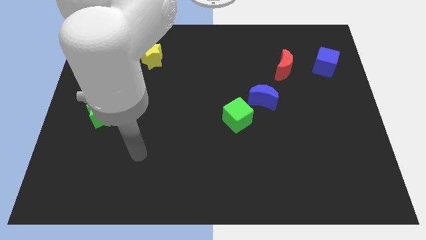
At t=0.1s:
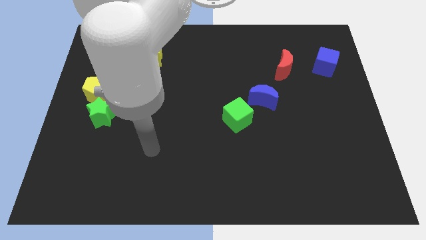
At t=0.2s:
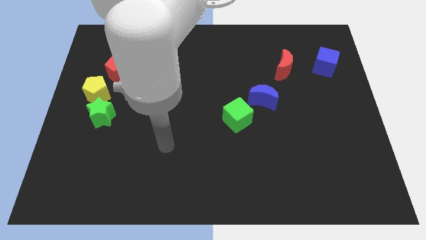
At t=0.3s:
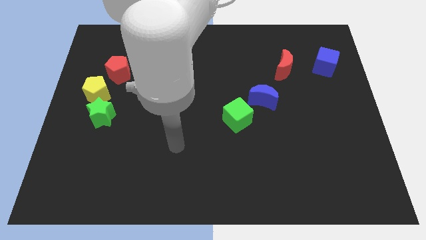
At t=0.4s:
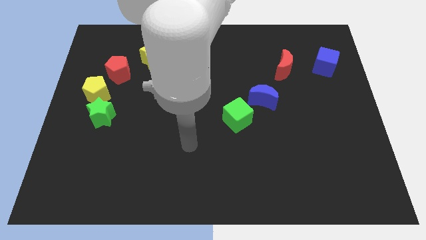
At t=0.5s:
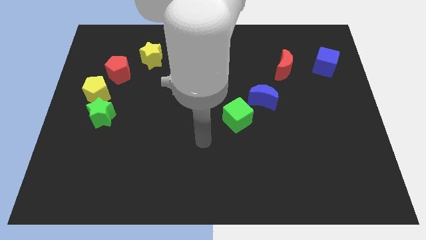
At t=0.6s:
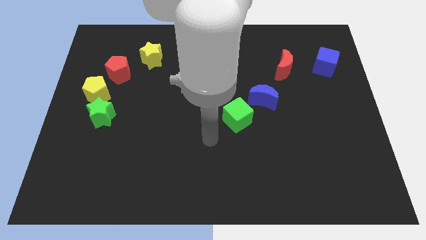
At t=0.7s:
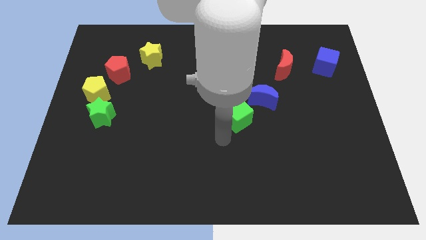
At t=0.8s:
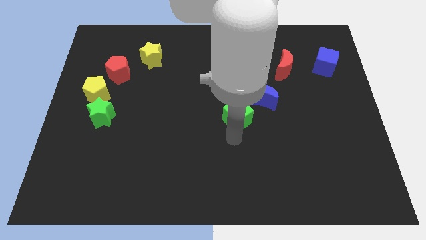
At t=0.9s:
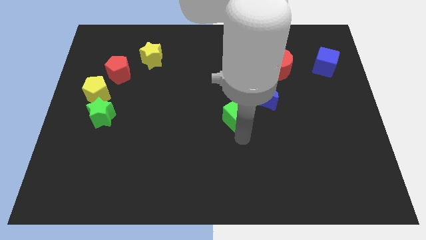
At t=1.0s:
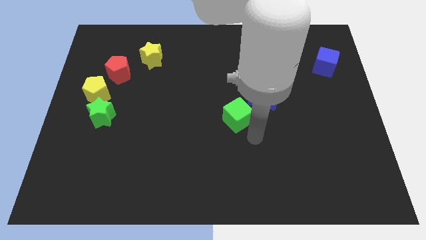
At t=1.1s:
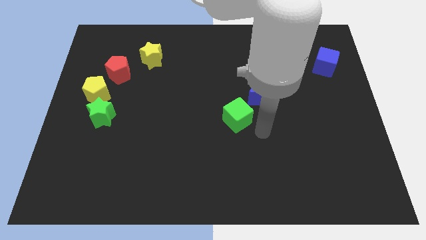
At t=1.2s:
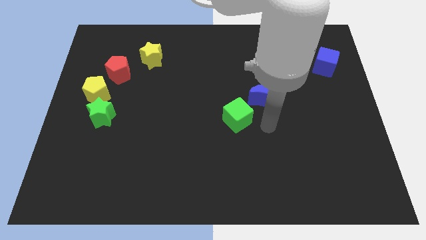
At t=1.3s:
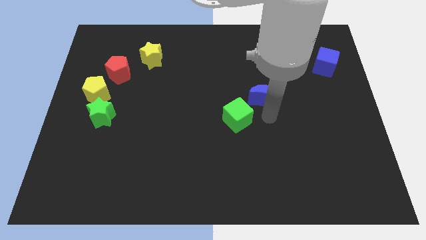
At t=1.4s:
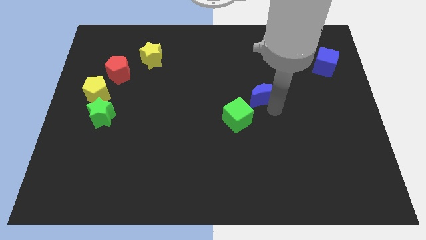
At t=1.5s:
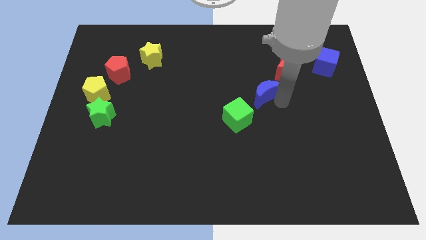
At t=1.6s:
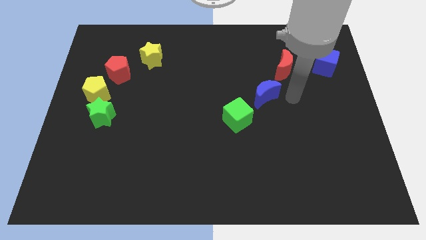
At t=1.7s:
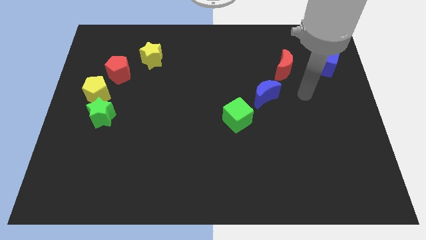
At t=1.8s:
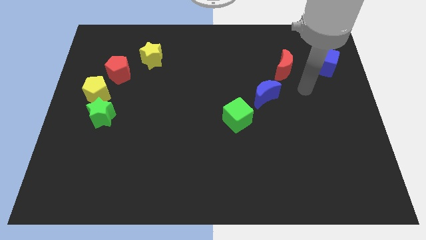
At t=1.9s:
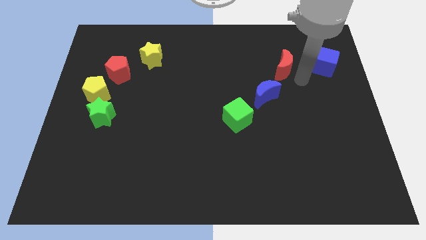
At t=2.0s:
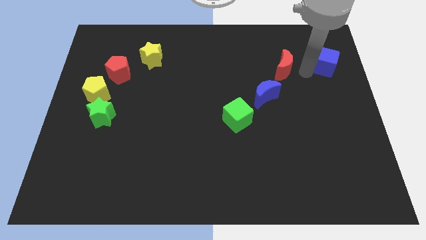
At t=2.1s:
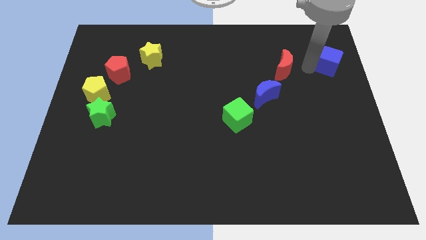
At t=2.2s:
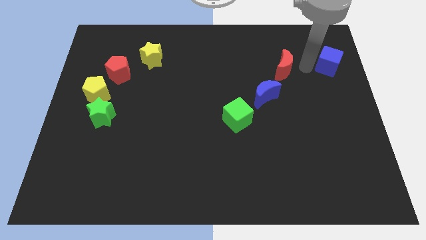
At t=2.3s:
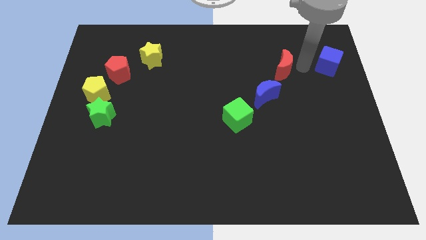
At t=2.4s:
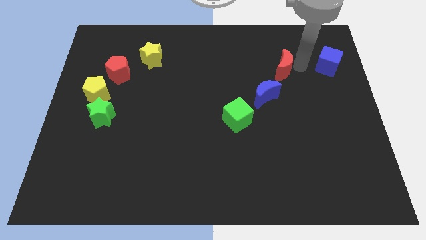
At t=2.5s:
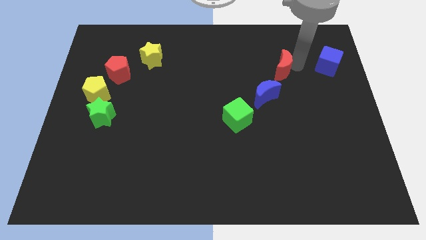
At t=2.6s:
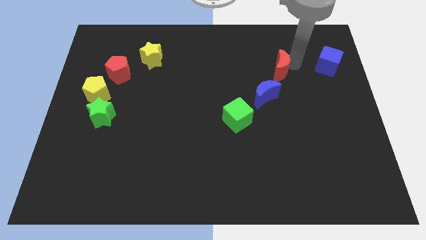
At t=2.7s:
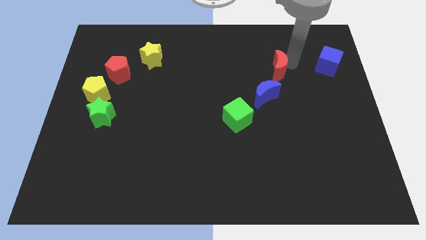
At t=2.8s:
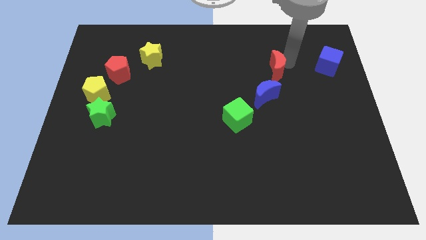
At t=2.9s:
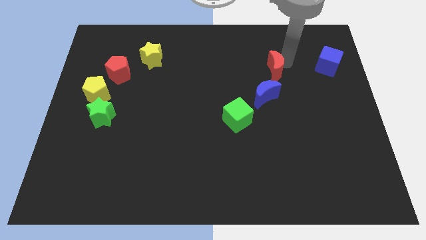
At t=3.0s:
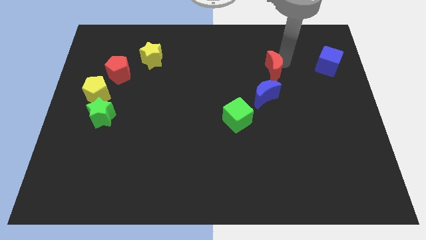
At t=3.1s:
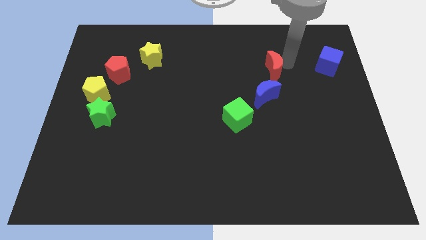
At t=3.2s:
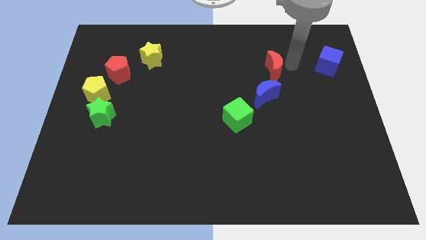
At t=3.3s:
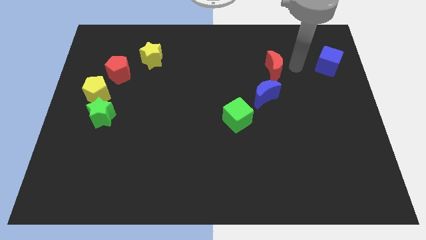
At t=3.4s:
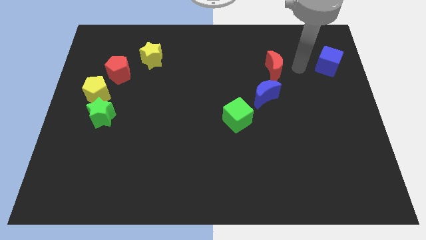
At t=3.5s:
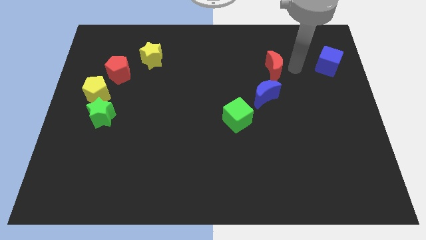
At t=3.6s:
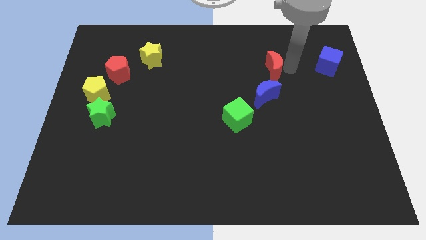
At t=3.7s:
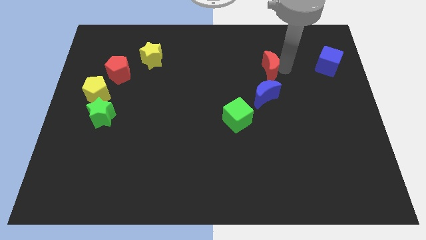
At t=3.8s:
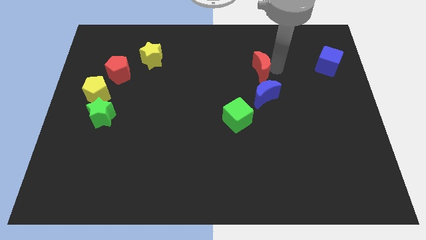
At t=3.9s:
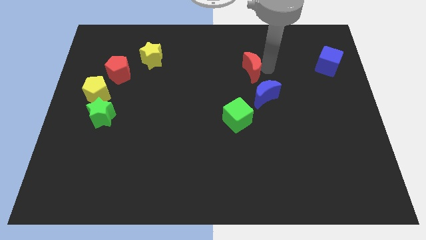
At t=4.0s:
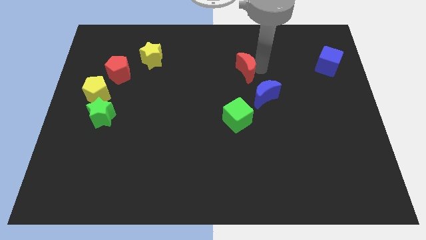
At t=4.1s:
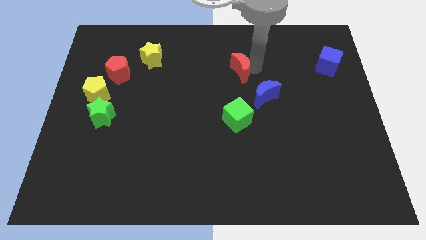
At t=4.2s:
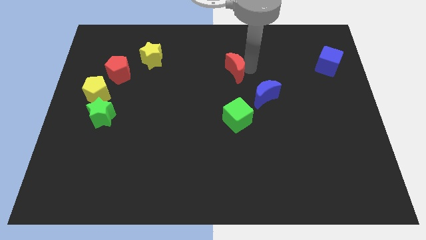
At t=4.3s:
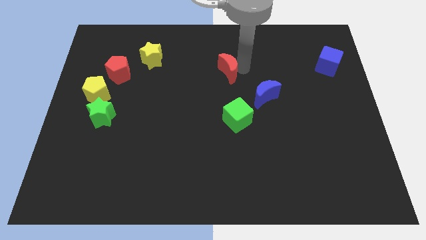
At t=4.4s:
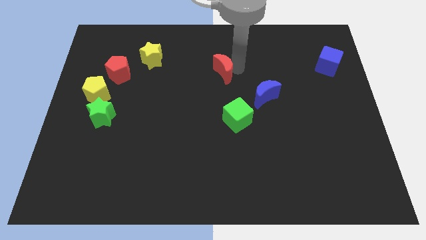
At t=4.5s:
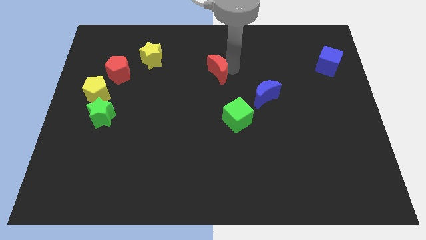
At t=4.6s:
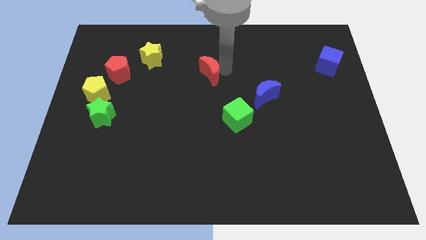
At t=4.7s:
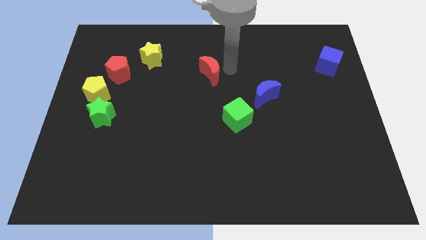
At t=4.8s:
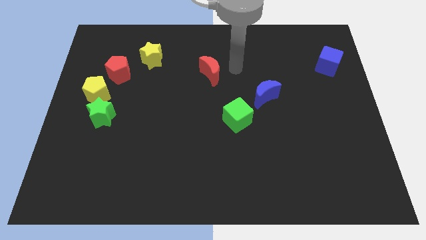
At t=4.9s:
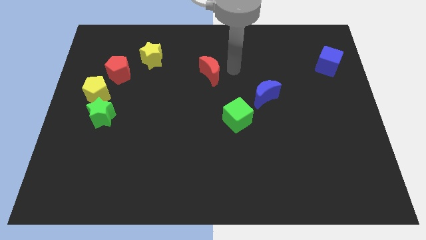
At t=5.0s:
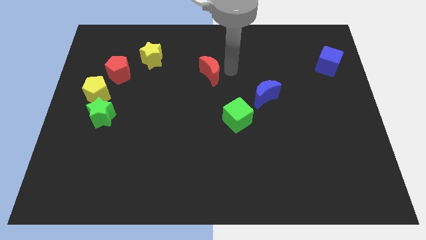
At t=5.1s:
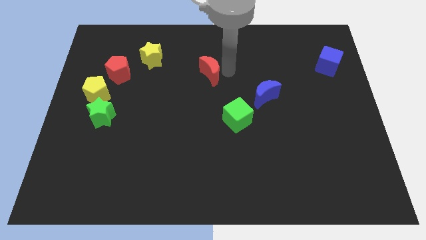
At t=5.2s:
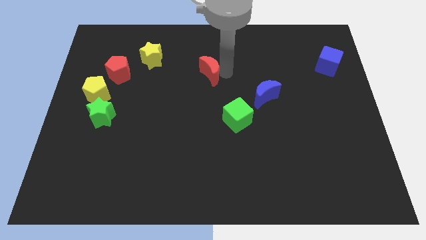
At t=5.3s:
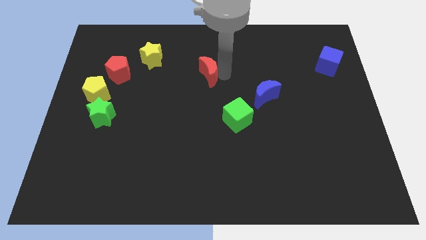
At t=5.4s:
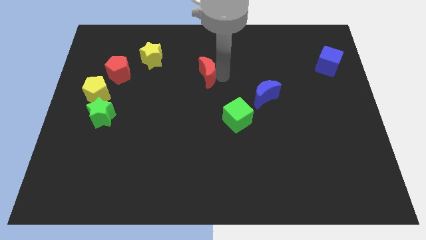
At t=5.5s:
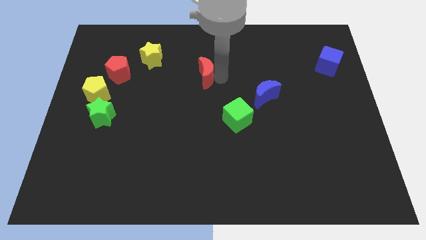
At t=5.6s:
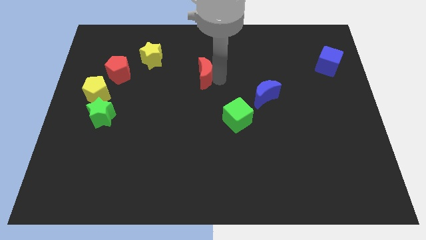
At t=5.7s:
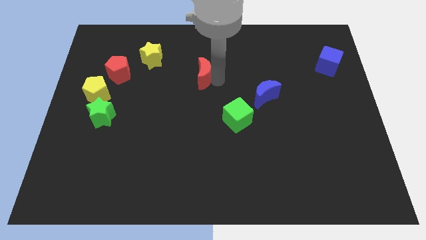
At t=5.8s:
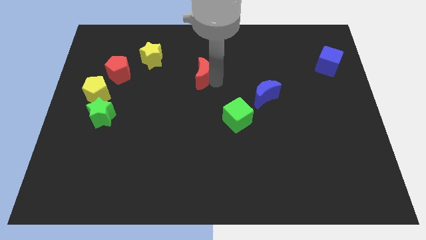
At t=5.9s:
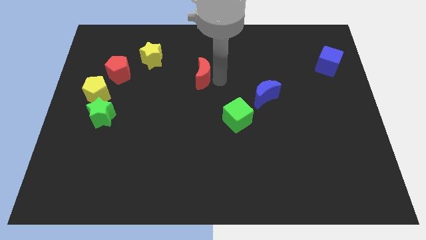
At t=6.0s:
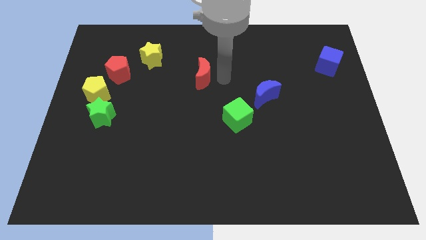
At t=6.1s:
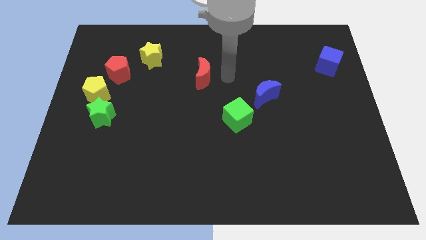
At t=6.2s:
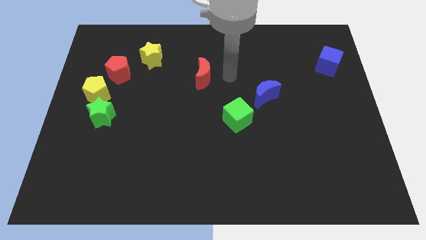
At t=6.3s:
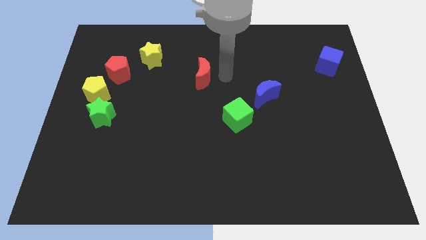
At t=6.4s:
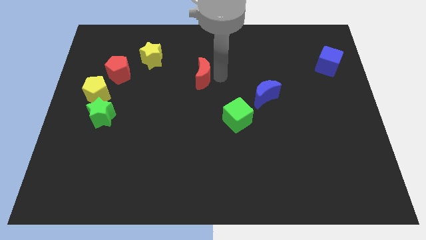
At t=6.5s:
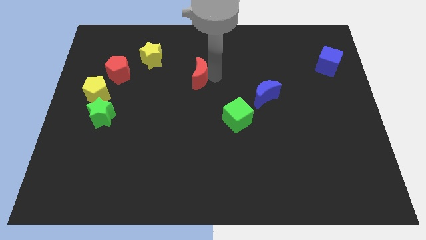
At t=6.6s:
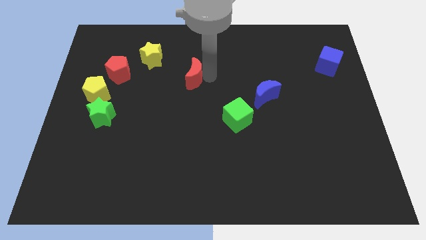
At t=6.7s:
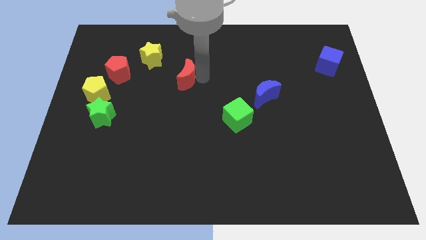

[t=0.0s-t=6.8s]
slide the red moon to the bottom right of the yellow star

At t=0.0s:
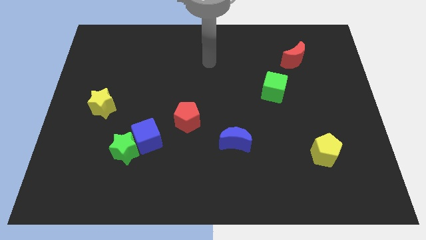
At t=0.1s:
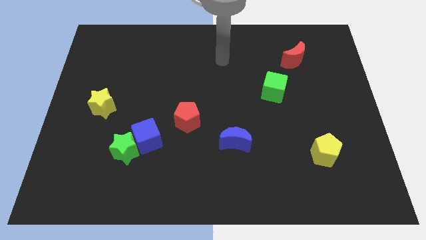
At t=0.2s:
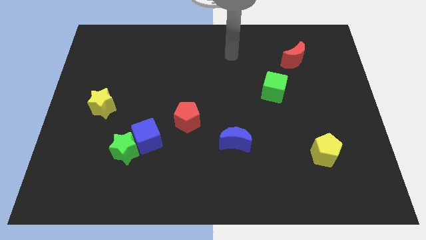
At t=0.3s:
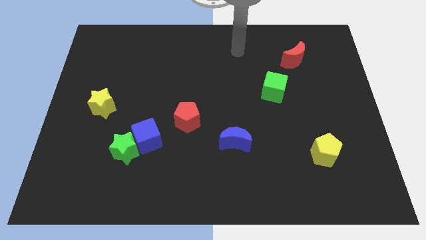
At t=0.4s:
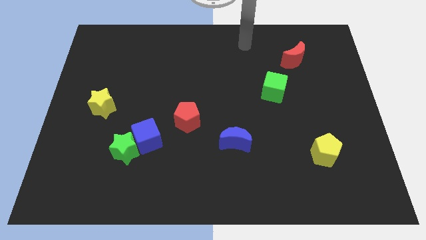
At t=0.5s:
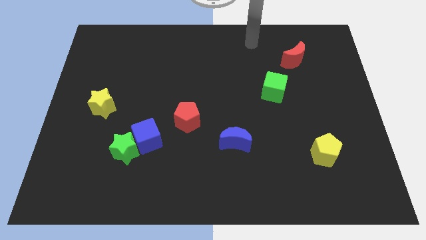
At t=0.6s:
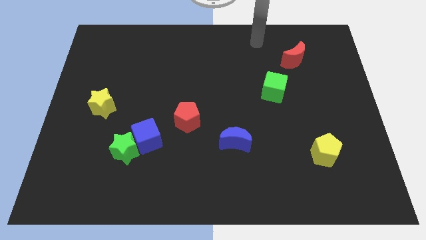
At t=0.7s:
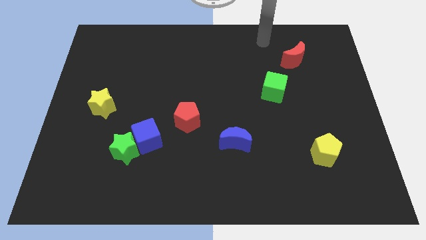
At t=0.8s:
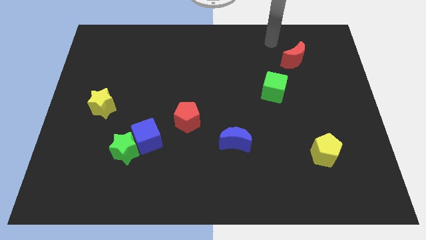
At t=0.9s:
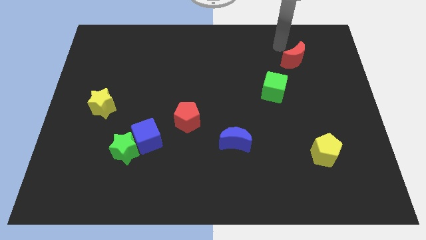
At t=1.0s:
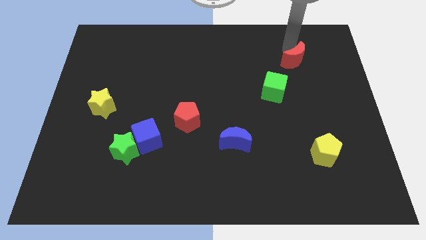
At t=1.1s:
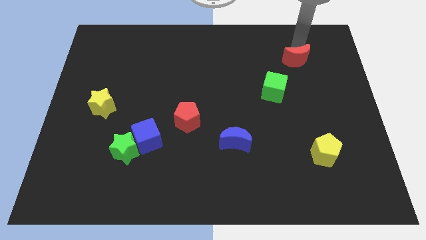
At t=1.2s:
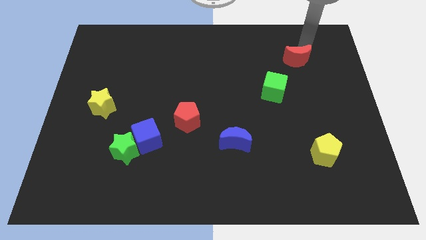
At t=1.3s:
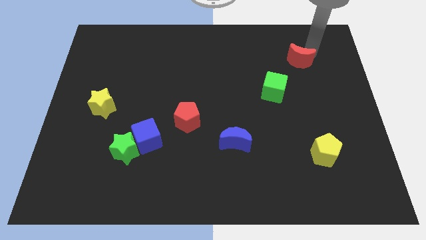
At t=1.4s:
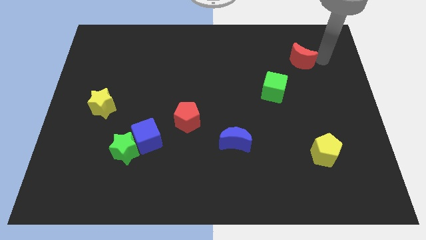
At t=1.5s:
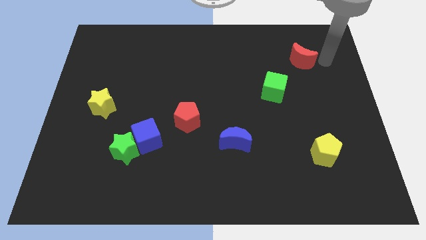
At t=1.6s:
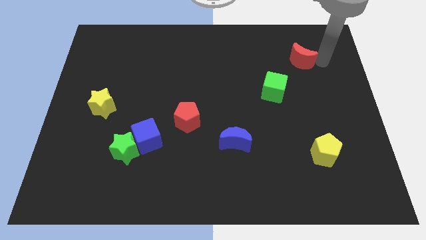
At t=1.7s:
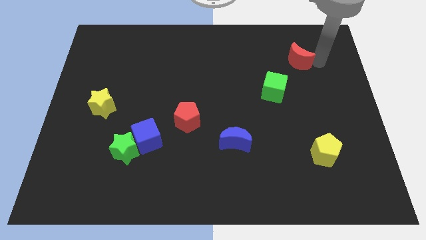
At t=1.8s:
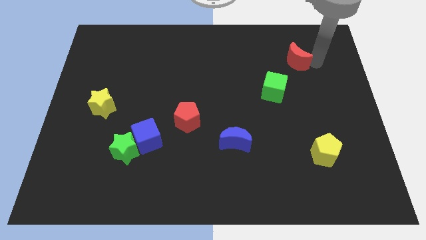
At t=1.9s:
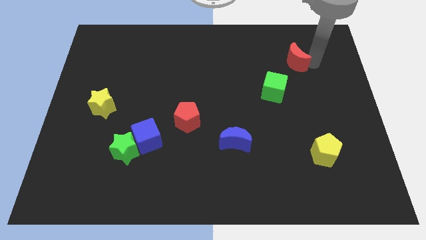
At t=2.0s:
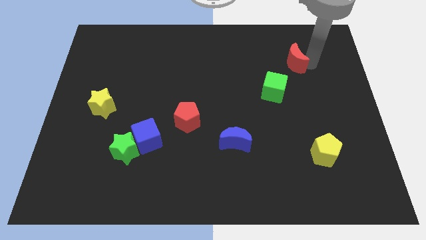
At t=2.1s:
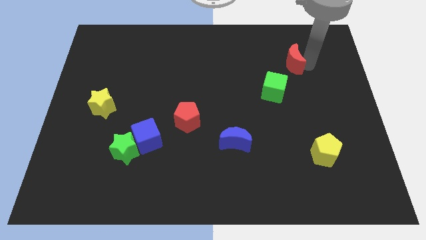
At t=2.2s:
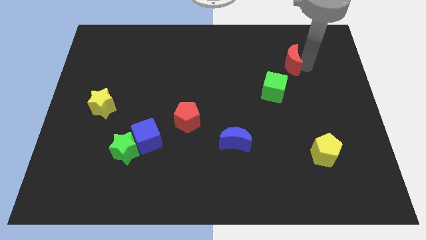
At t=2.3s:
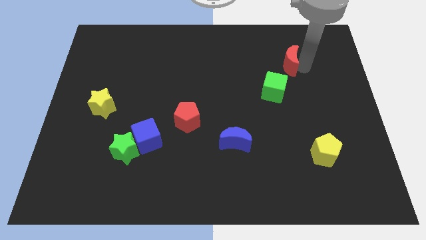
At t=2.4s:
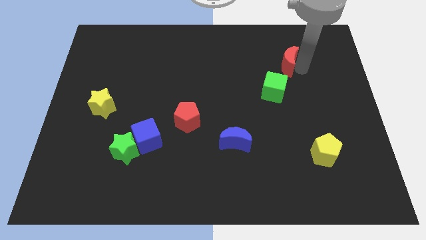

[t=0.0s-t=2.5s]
move the red moon above the green cube
